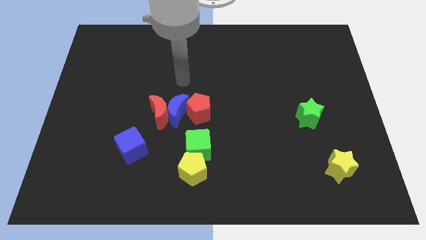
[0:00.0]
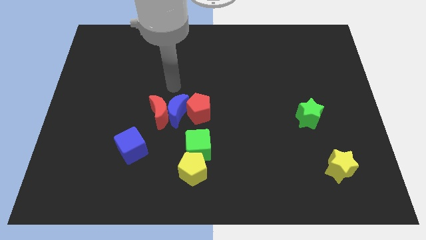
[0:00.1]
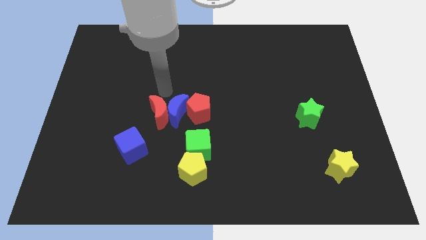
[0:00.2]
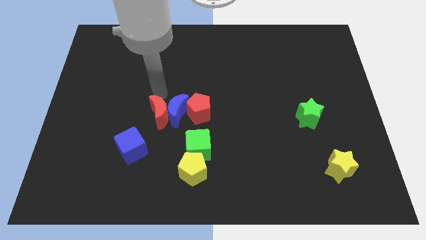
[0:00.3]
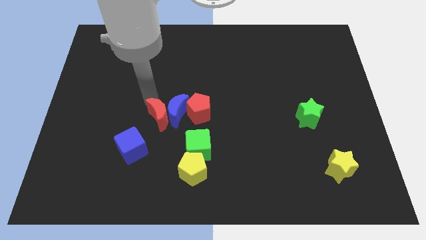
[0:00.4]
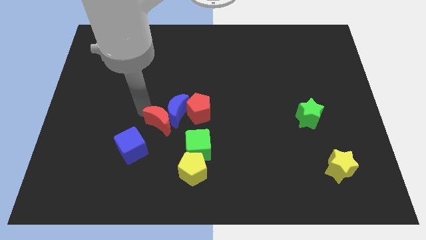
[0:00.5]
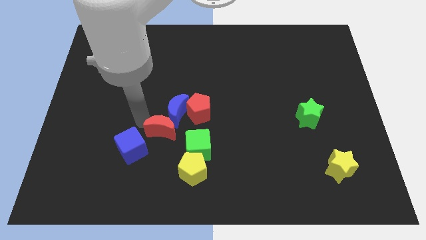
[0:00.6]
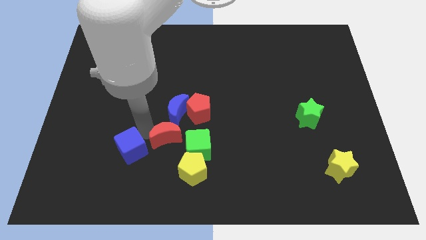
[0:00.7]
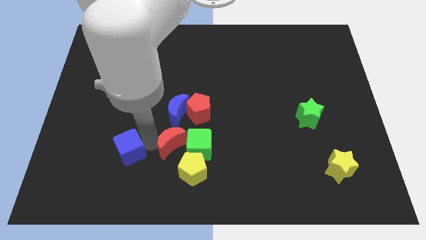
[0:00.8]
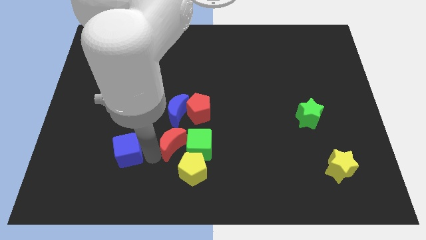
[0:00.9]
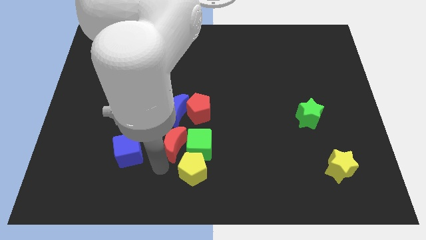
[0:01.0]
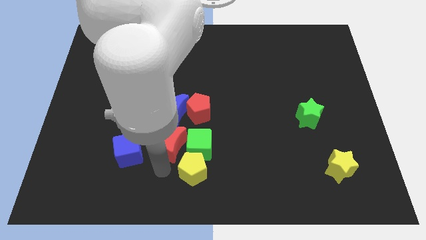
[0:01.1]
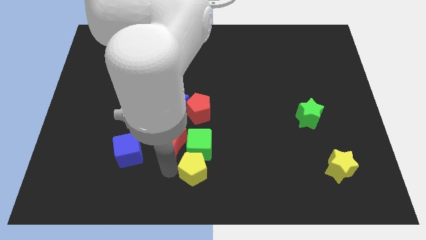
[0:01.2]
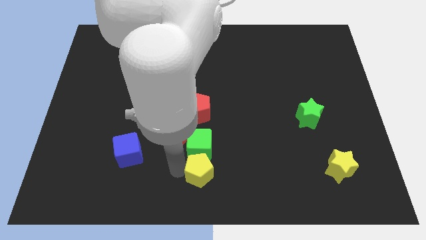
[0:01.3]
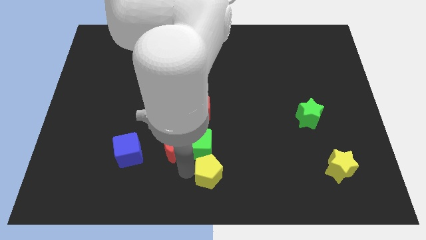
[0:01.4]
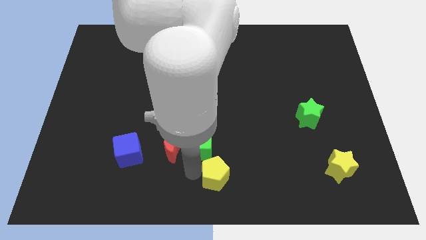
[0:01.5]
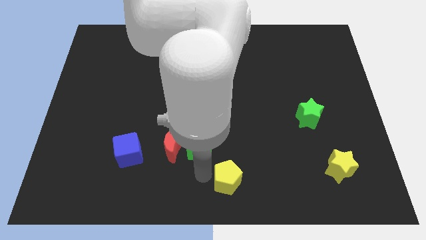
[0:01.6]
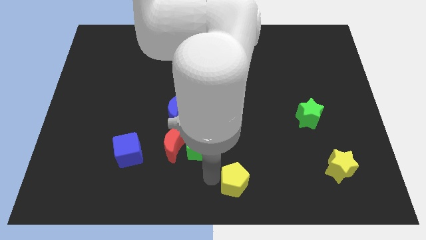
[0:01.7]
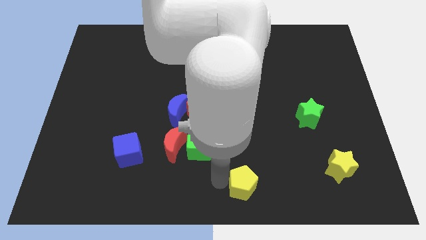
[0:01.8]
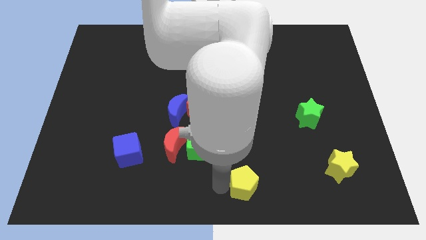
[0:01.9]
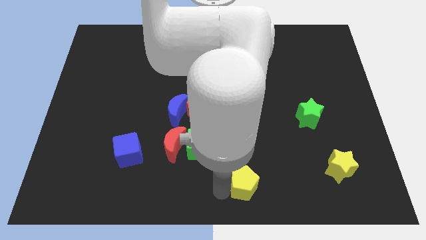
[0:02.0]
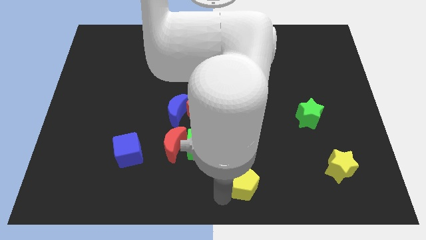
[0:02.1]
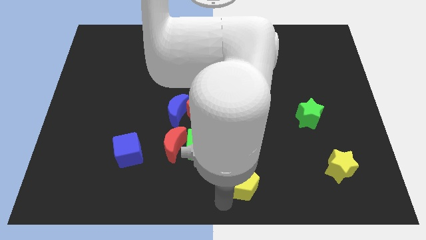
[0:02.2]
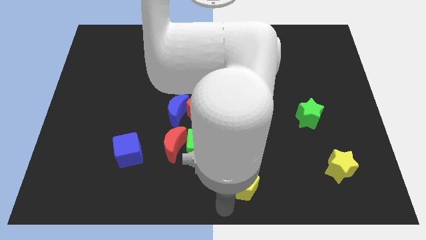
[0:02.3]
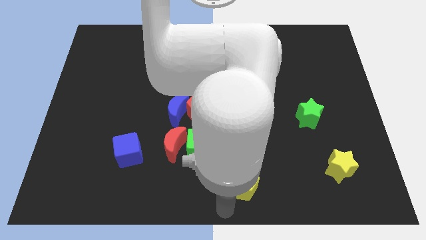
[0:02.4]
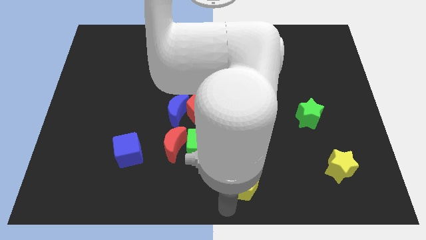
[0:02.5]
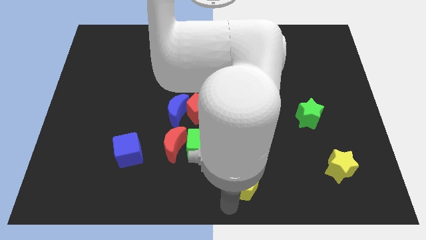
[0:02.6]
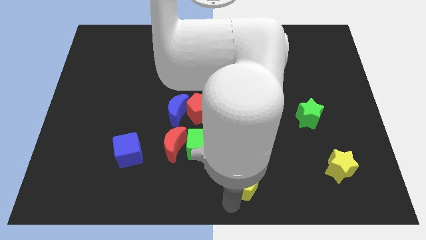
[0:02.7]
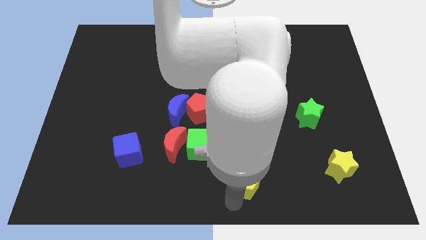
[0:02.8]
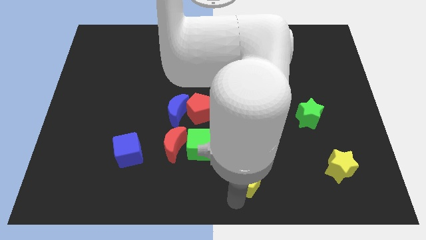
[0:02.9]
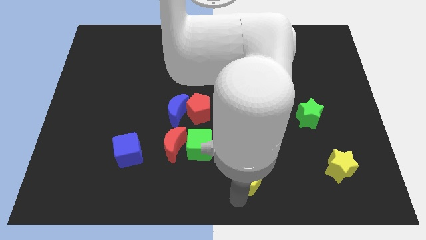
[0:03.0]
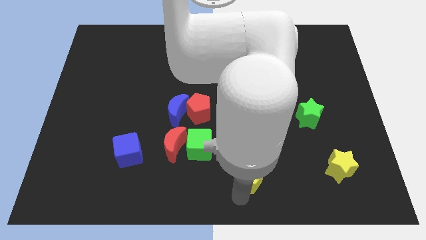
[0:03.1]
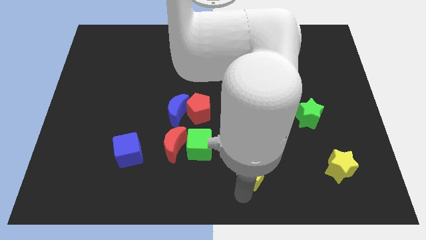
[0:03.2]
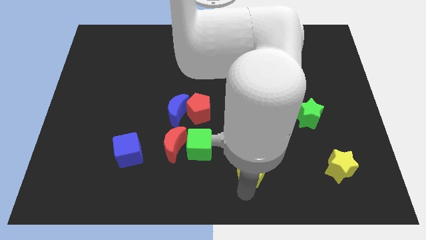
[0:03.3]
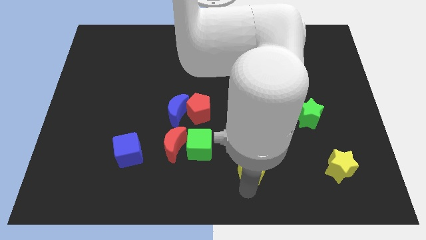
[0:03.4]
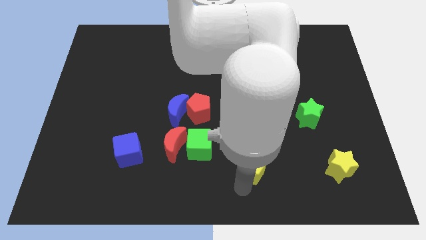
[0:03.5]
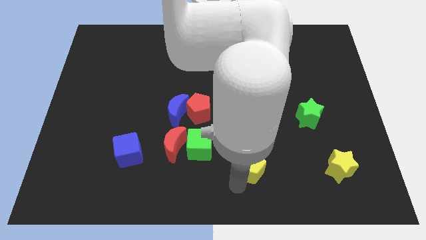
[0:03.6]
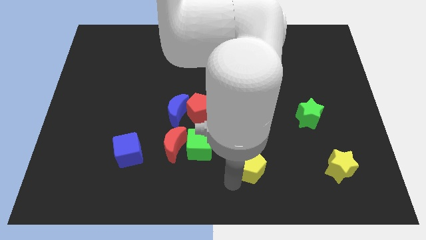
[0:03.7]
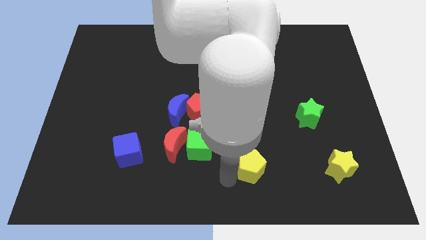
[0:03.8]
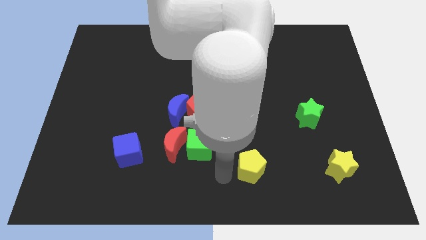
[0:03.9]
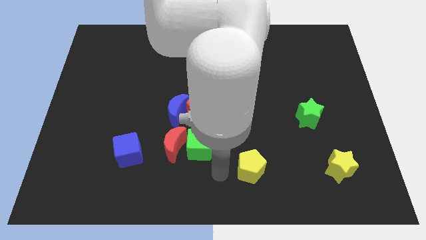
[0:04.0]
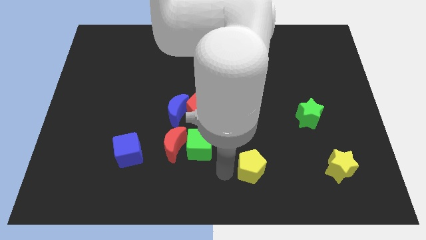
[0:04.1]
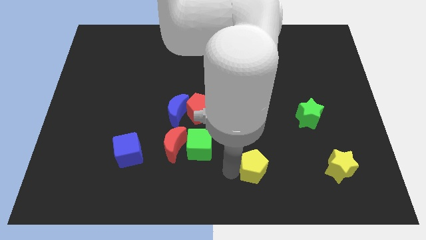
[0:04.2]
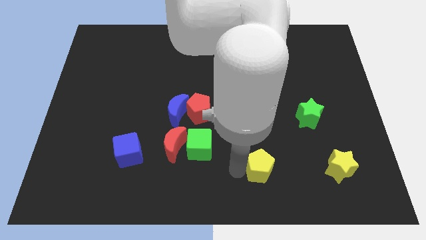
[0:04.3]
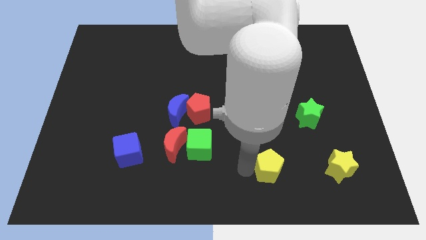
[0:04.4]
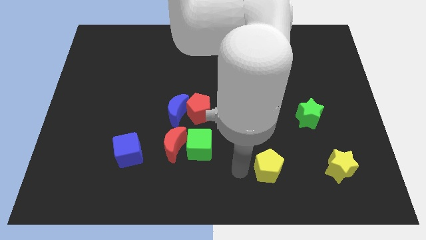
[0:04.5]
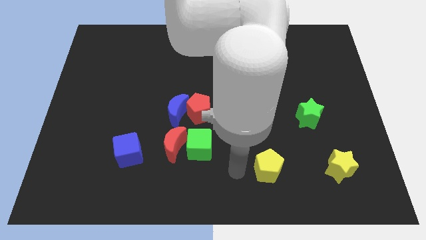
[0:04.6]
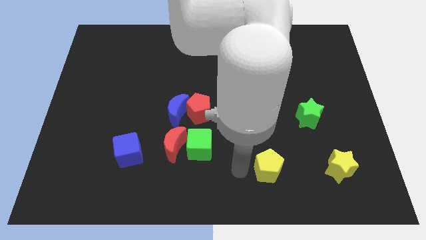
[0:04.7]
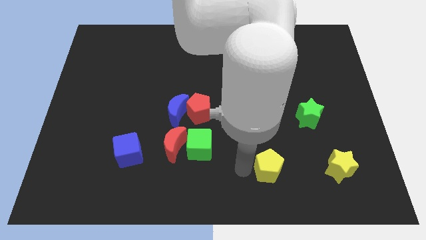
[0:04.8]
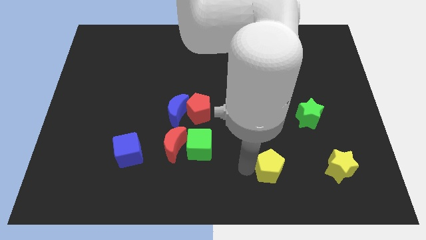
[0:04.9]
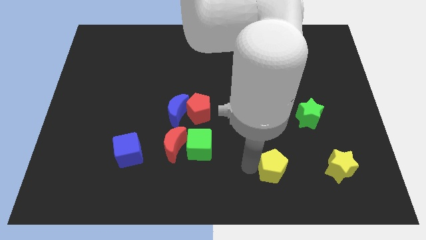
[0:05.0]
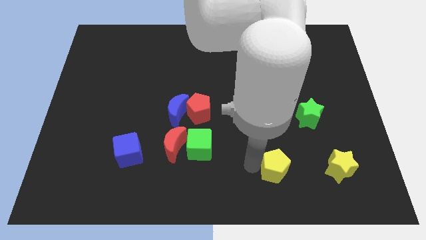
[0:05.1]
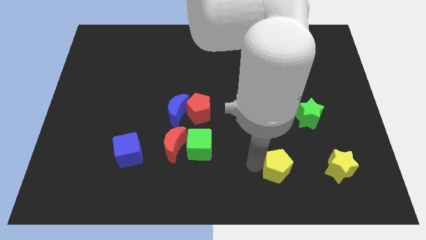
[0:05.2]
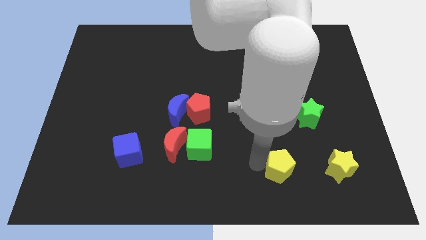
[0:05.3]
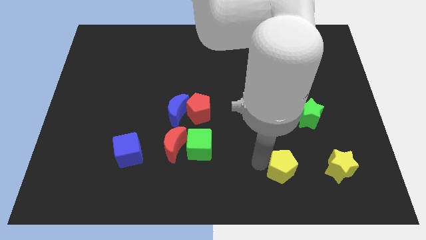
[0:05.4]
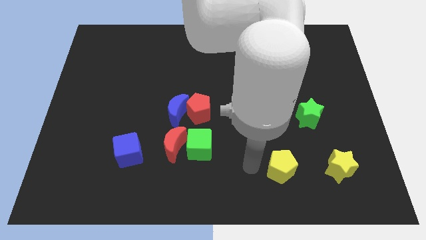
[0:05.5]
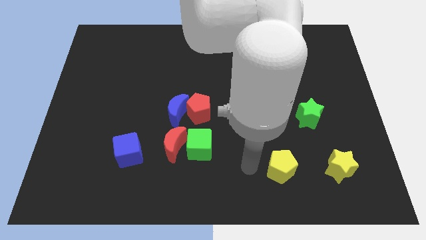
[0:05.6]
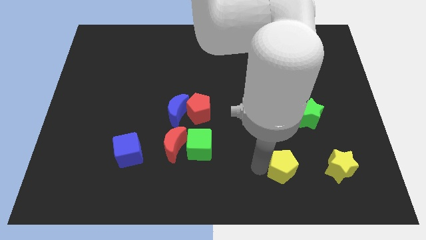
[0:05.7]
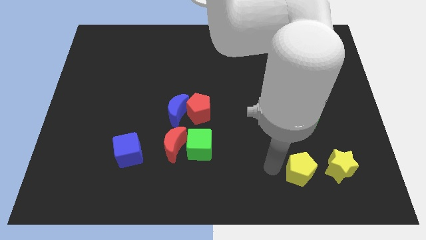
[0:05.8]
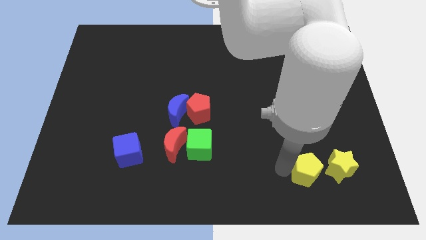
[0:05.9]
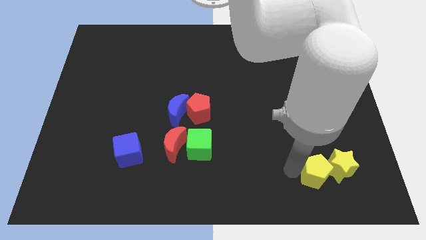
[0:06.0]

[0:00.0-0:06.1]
put the yellow pentagon next to the yellow star

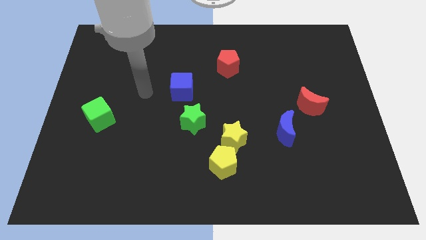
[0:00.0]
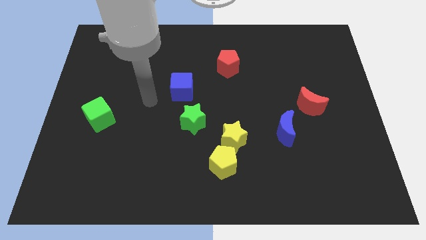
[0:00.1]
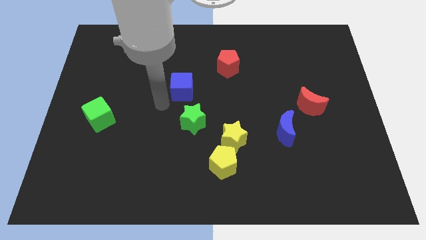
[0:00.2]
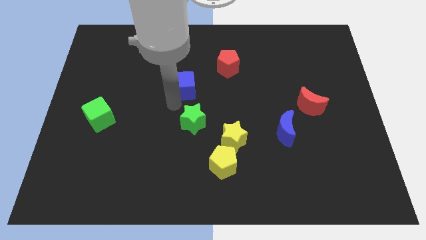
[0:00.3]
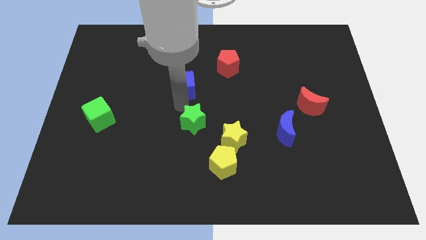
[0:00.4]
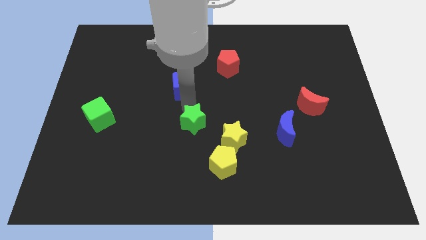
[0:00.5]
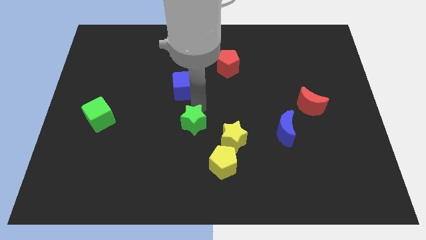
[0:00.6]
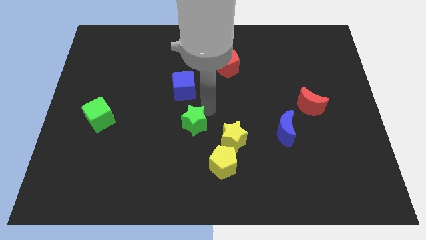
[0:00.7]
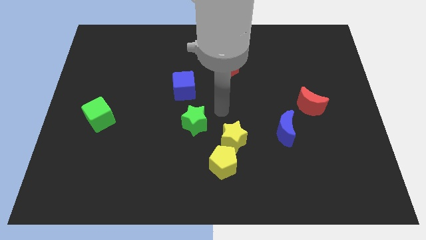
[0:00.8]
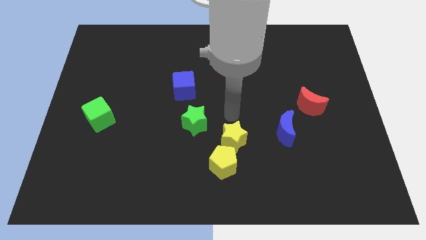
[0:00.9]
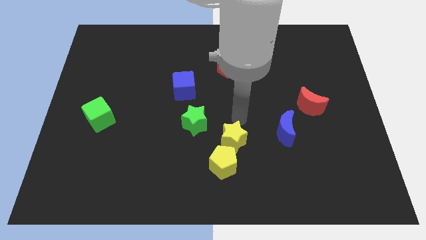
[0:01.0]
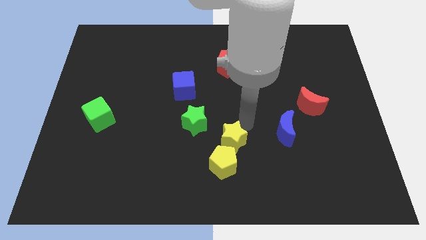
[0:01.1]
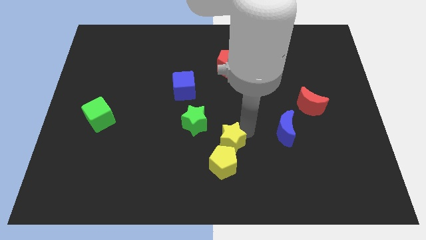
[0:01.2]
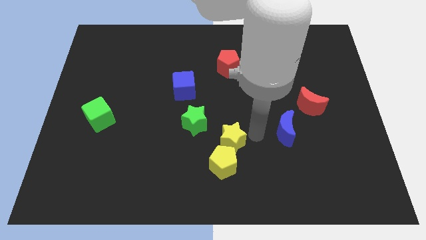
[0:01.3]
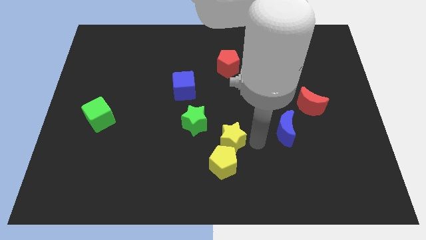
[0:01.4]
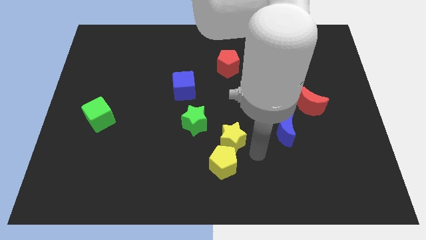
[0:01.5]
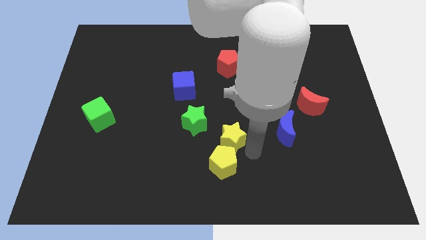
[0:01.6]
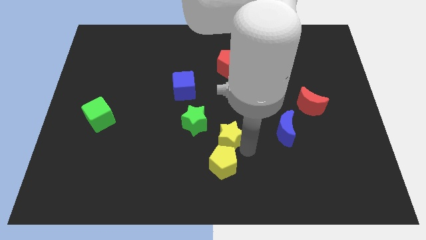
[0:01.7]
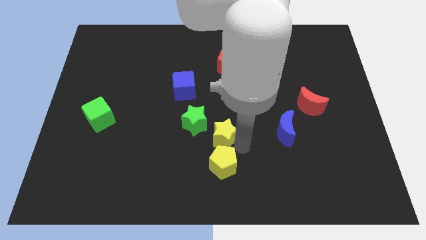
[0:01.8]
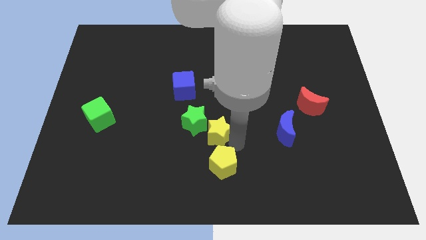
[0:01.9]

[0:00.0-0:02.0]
put the yellow star close to the green star
